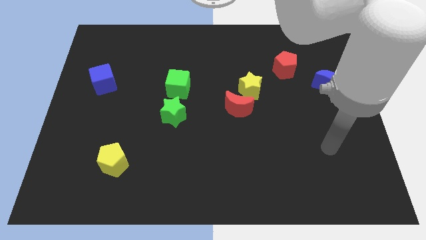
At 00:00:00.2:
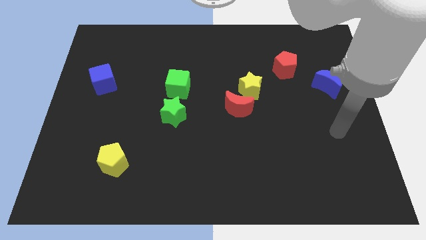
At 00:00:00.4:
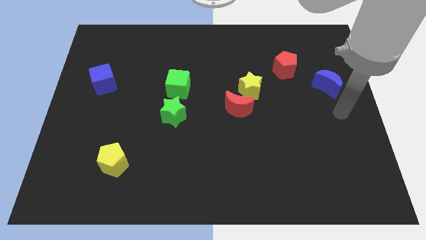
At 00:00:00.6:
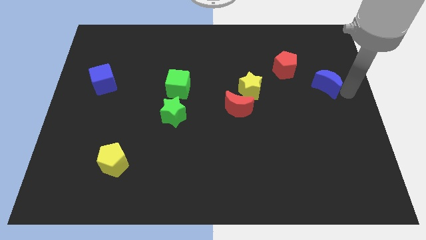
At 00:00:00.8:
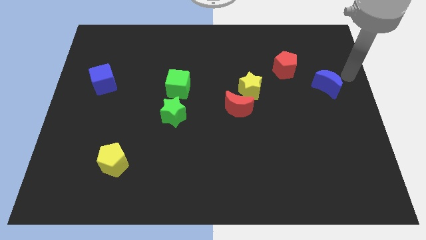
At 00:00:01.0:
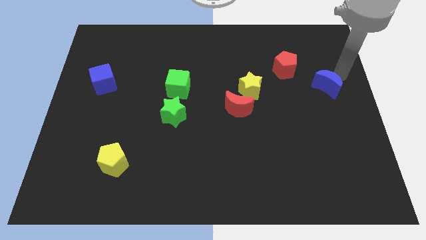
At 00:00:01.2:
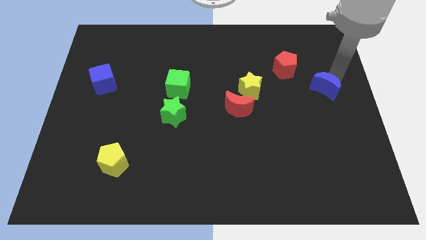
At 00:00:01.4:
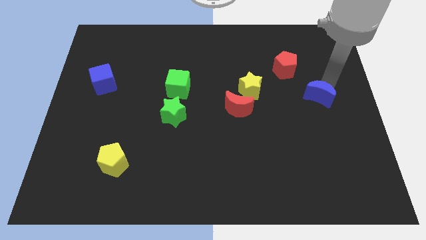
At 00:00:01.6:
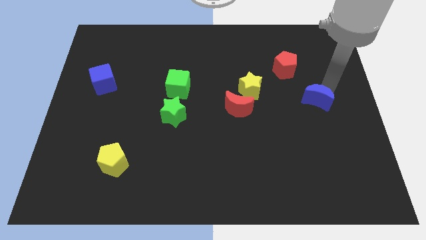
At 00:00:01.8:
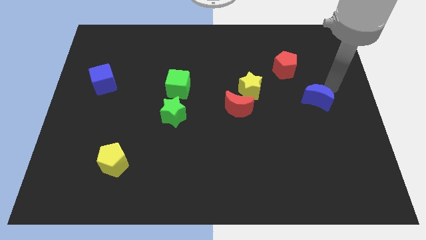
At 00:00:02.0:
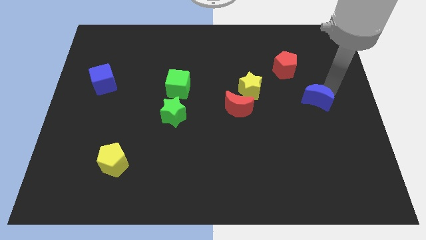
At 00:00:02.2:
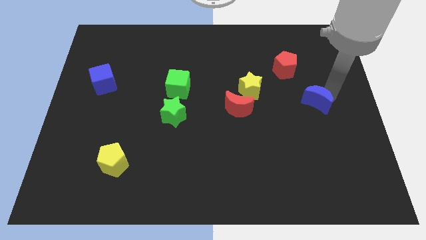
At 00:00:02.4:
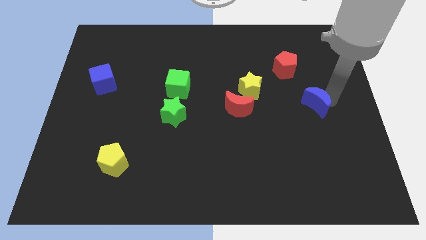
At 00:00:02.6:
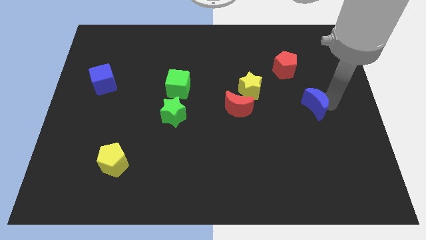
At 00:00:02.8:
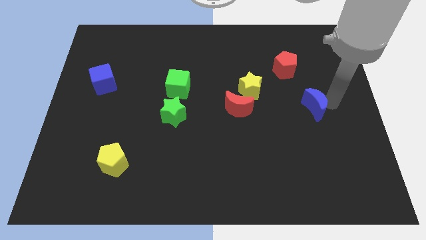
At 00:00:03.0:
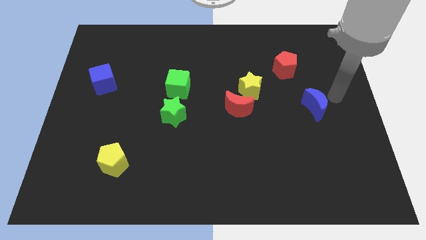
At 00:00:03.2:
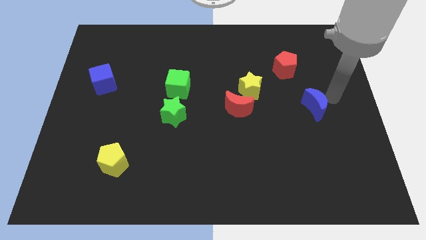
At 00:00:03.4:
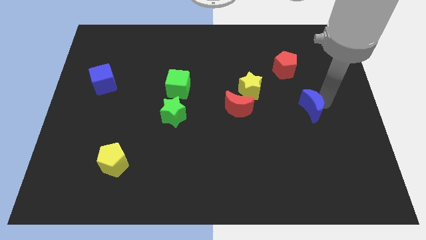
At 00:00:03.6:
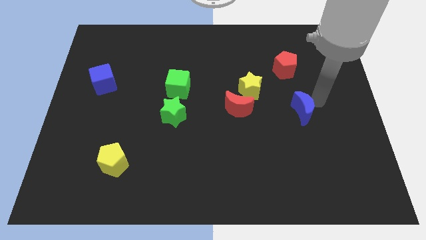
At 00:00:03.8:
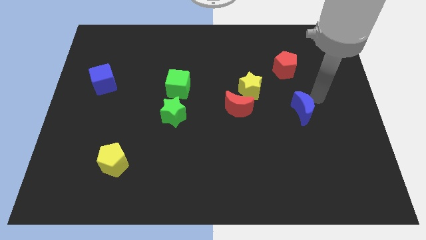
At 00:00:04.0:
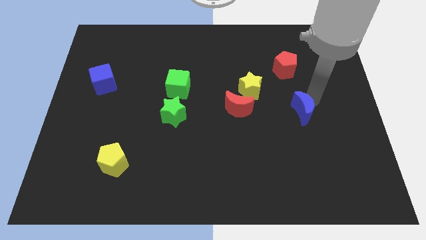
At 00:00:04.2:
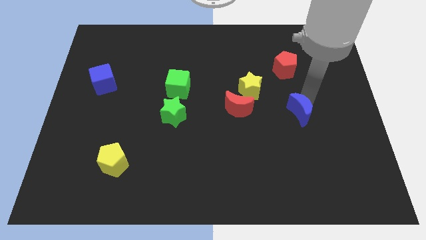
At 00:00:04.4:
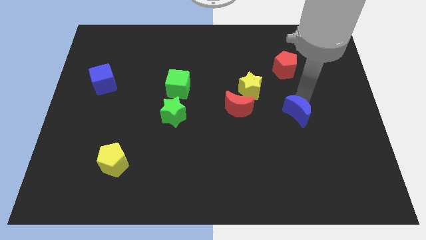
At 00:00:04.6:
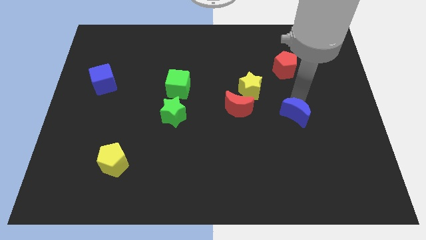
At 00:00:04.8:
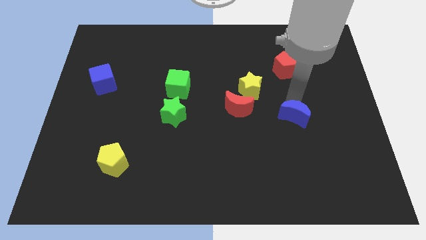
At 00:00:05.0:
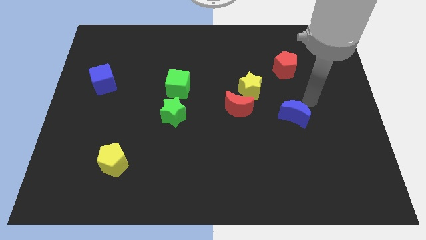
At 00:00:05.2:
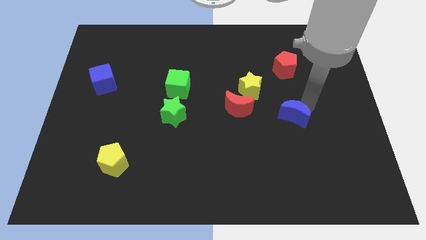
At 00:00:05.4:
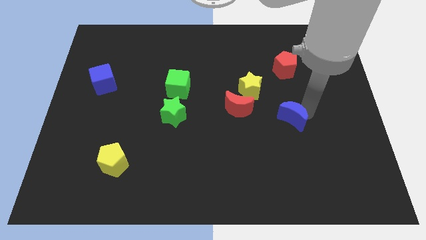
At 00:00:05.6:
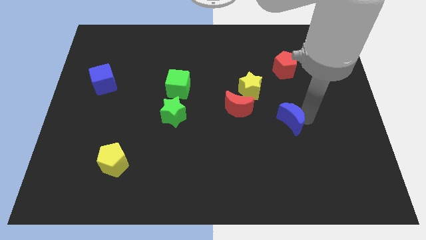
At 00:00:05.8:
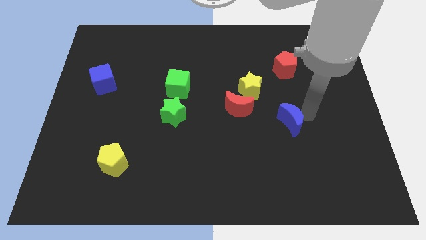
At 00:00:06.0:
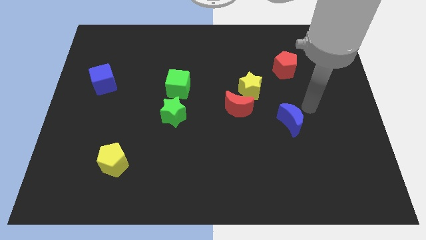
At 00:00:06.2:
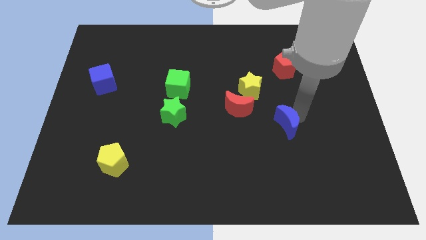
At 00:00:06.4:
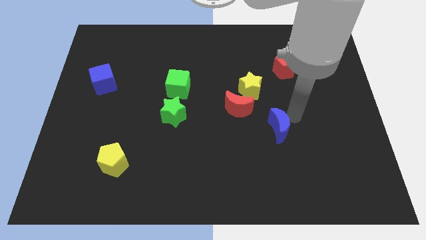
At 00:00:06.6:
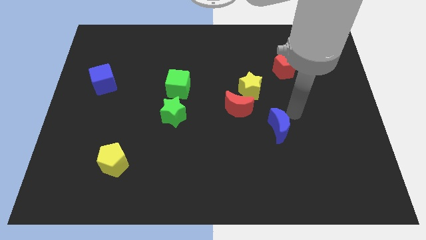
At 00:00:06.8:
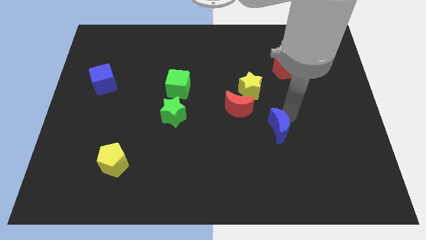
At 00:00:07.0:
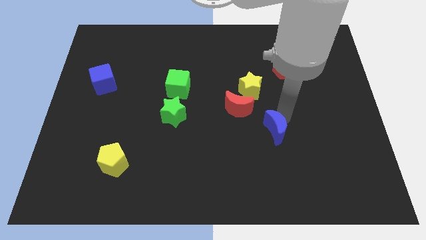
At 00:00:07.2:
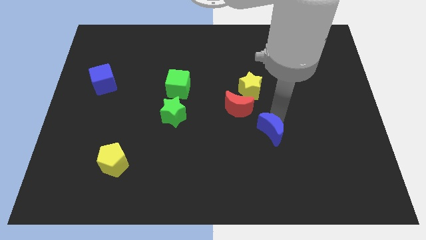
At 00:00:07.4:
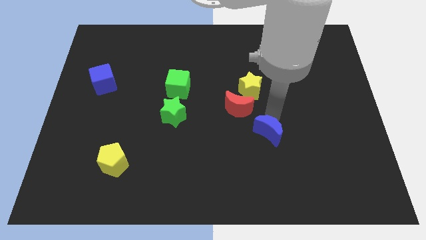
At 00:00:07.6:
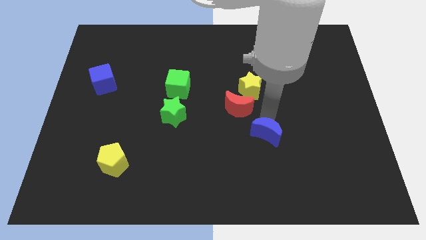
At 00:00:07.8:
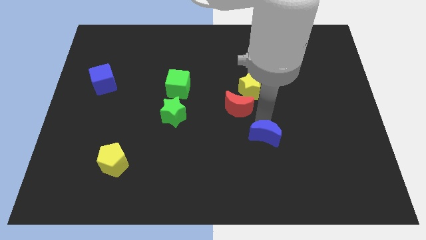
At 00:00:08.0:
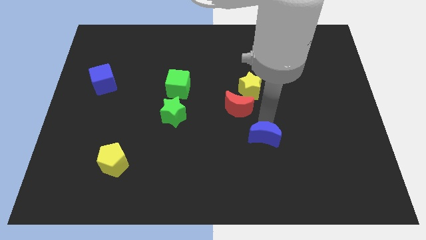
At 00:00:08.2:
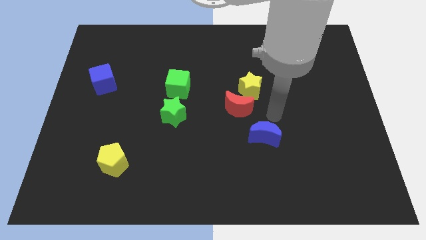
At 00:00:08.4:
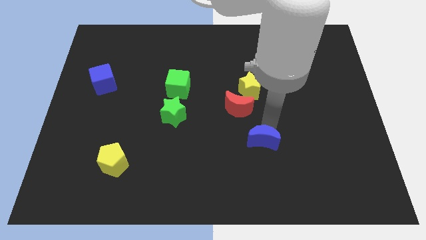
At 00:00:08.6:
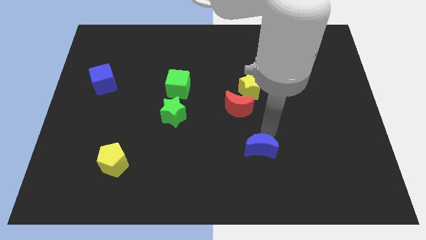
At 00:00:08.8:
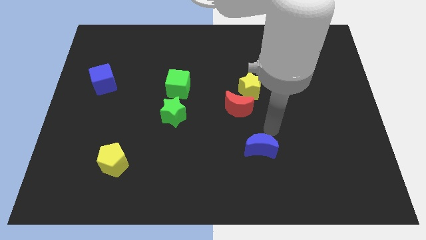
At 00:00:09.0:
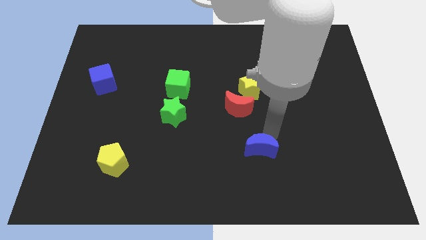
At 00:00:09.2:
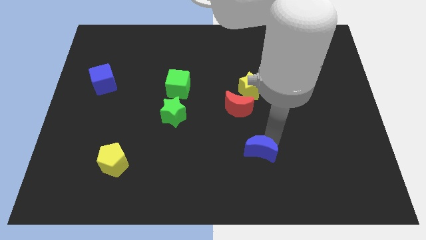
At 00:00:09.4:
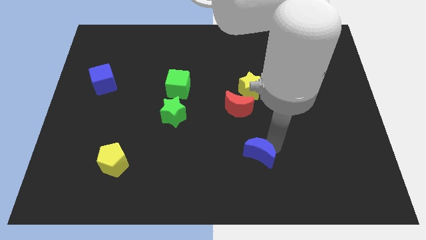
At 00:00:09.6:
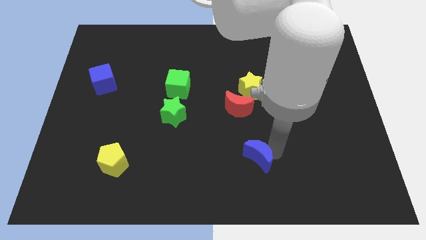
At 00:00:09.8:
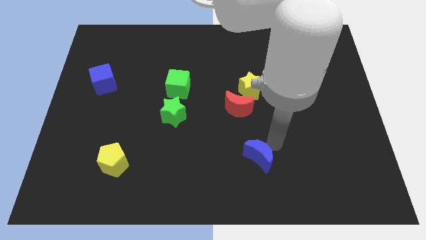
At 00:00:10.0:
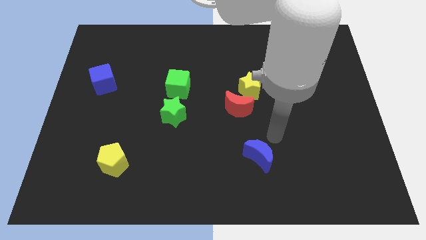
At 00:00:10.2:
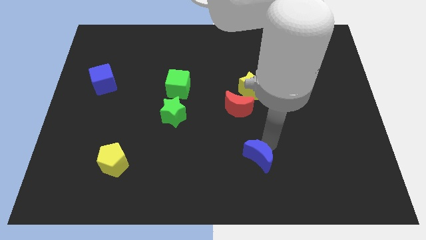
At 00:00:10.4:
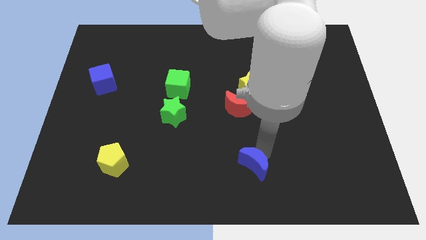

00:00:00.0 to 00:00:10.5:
slide the blue moon to the bottom side
